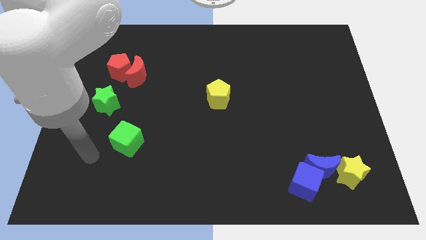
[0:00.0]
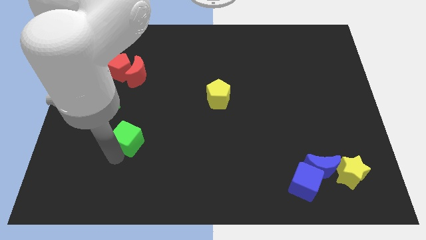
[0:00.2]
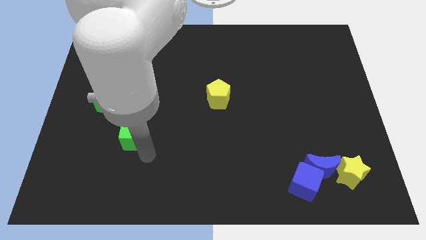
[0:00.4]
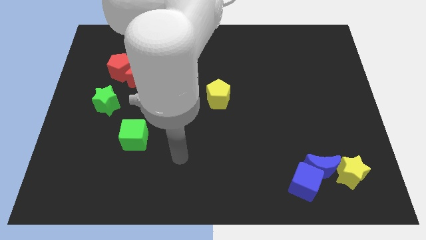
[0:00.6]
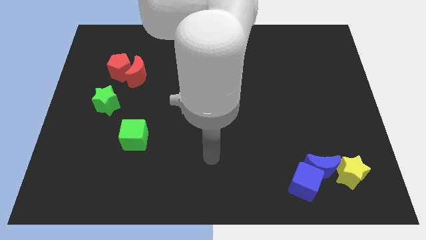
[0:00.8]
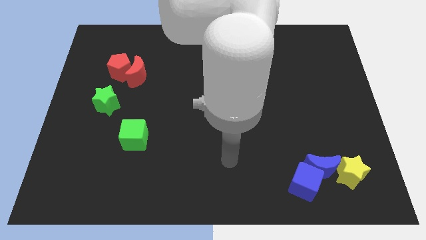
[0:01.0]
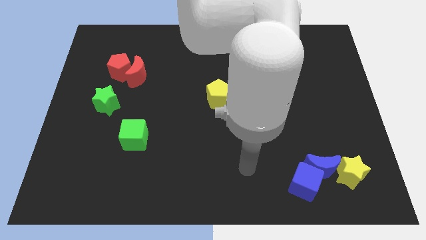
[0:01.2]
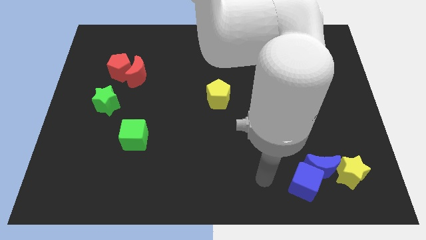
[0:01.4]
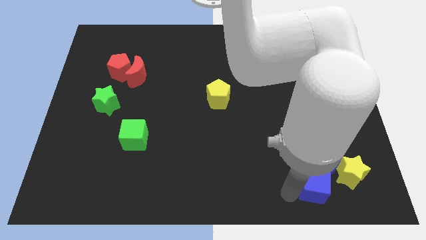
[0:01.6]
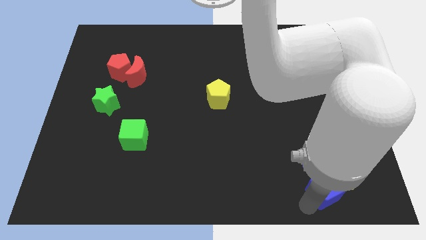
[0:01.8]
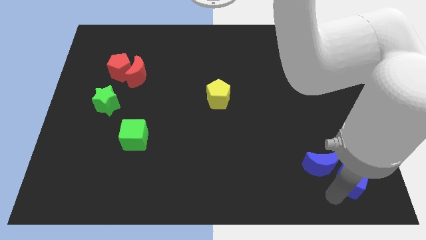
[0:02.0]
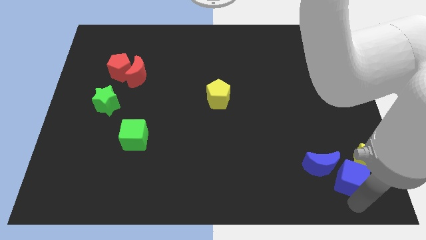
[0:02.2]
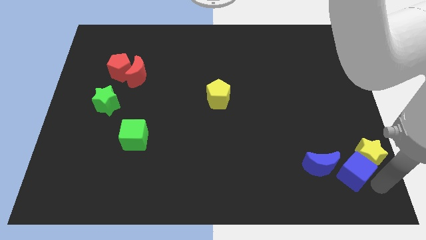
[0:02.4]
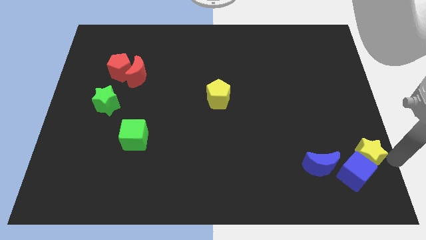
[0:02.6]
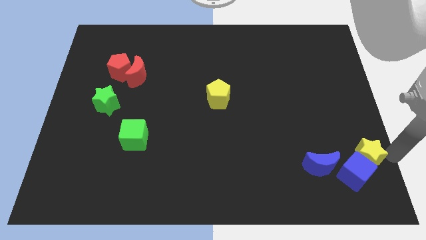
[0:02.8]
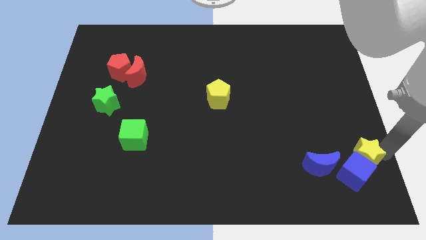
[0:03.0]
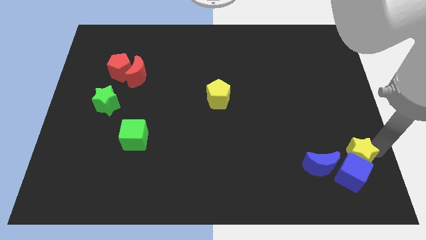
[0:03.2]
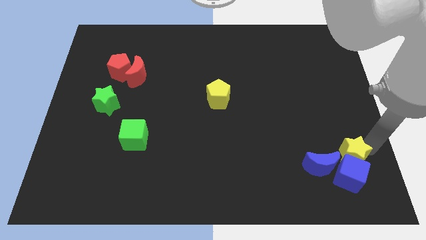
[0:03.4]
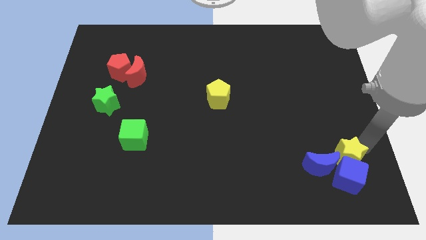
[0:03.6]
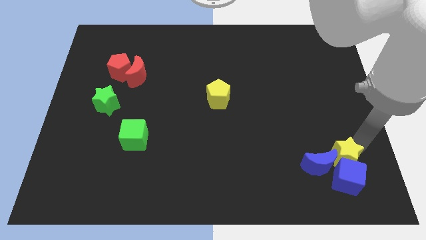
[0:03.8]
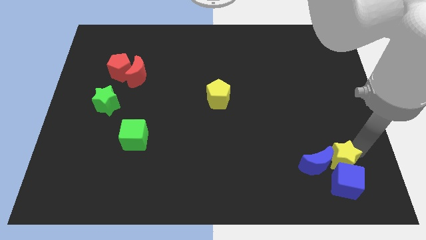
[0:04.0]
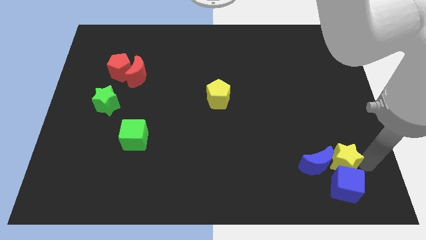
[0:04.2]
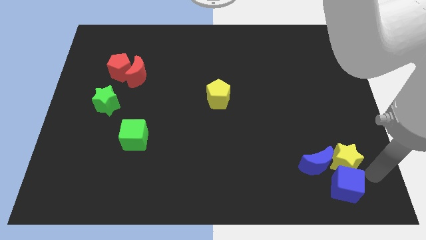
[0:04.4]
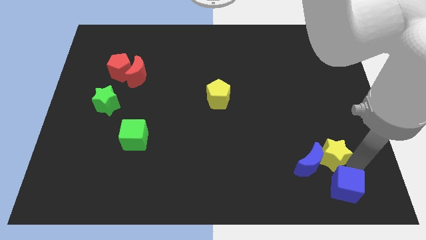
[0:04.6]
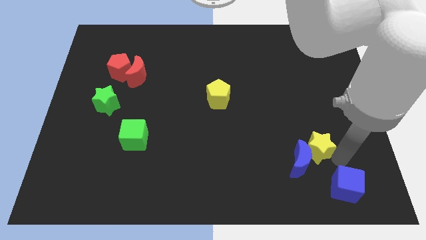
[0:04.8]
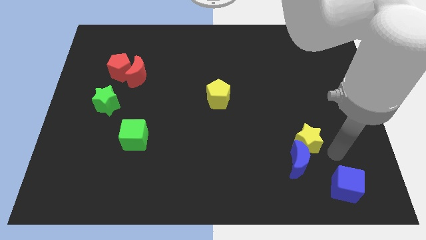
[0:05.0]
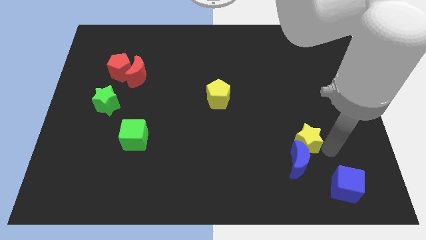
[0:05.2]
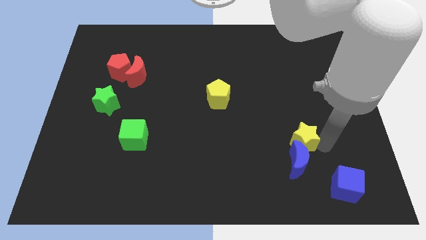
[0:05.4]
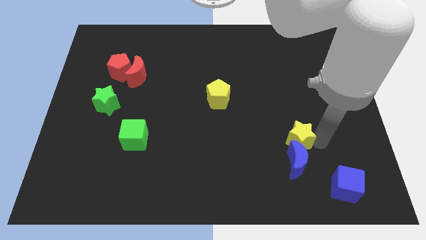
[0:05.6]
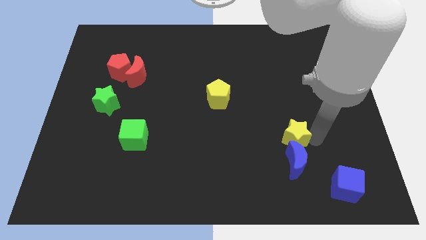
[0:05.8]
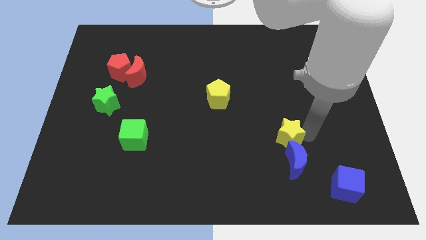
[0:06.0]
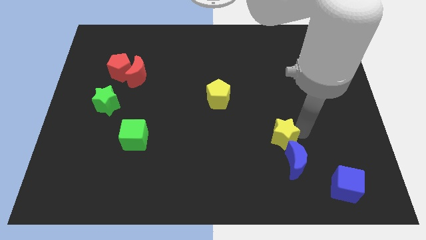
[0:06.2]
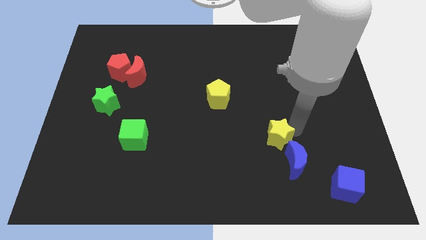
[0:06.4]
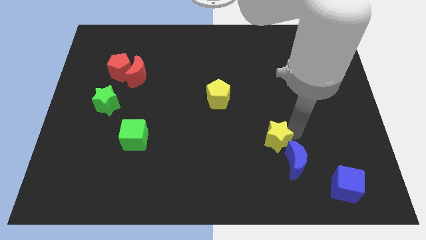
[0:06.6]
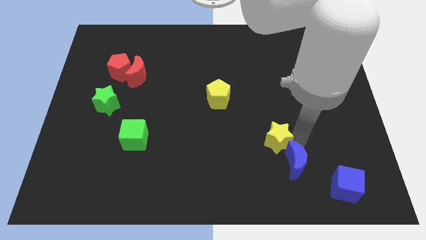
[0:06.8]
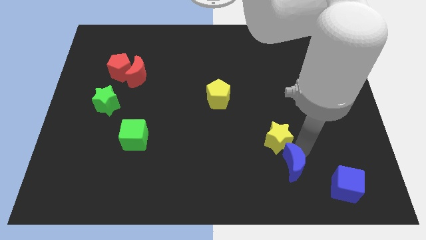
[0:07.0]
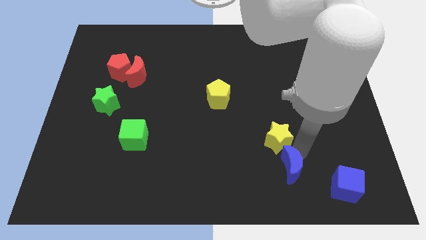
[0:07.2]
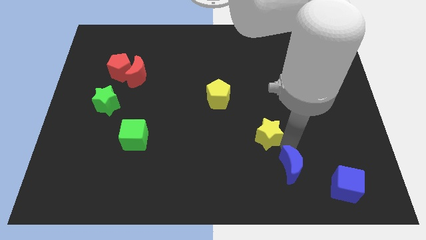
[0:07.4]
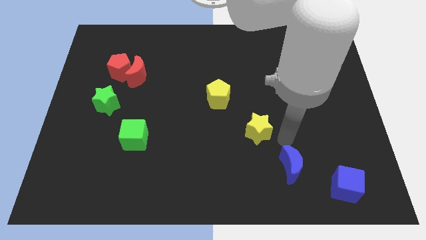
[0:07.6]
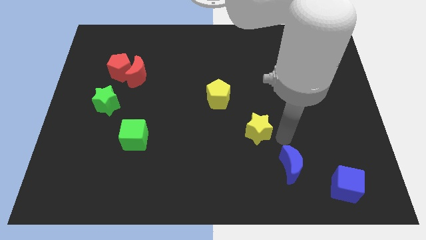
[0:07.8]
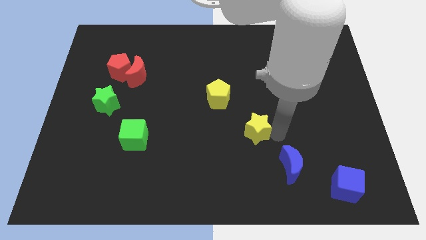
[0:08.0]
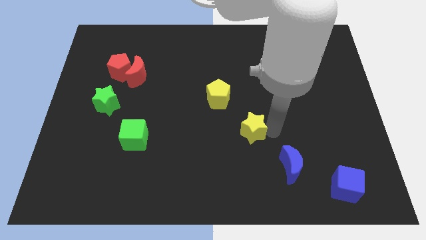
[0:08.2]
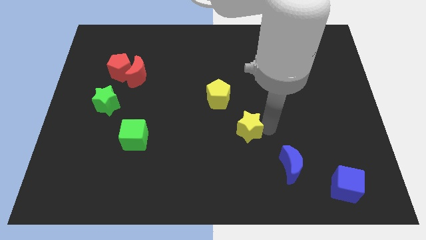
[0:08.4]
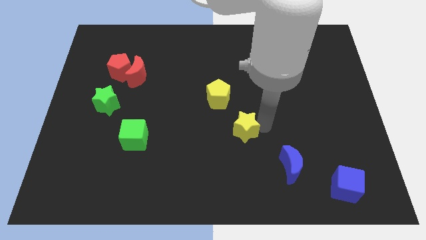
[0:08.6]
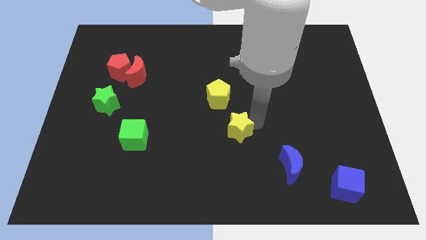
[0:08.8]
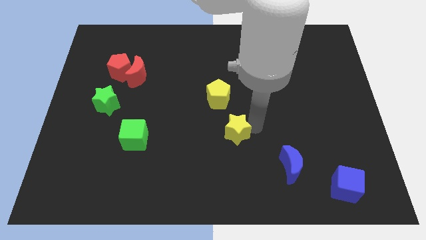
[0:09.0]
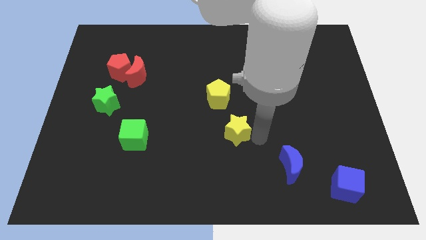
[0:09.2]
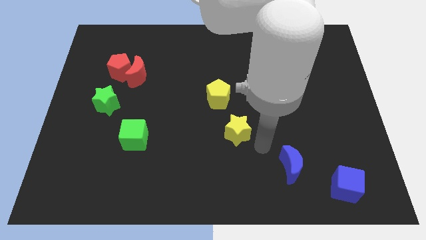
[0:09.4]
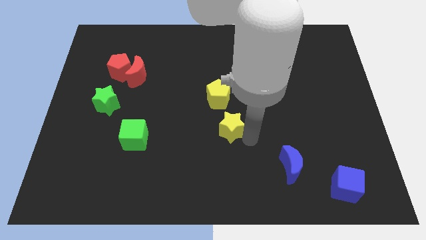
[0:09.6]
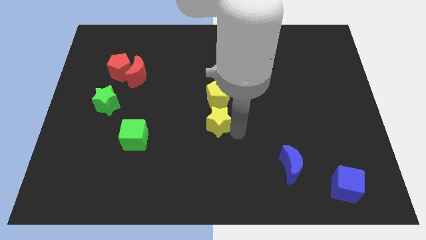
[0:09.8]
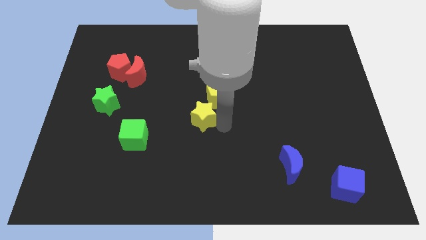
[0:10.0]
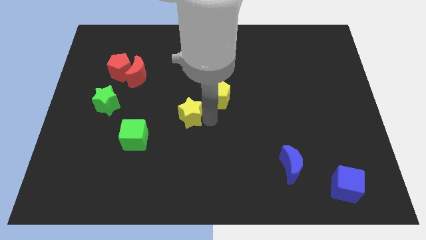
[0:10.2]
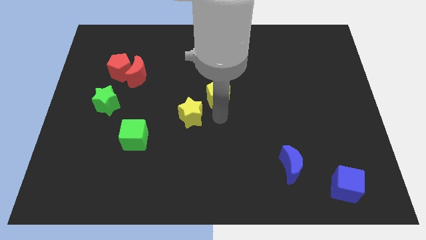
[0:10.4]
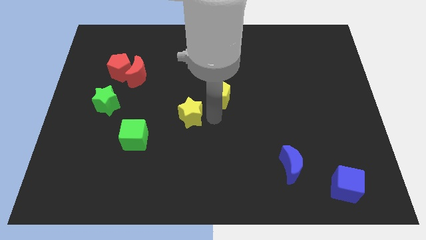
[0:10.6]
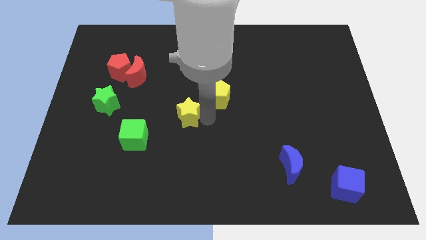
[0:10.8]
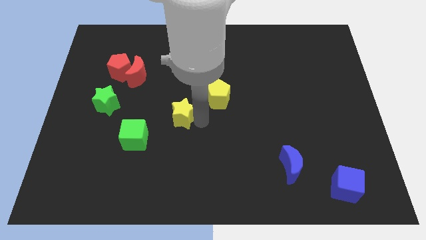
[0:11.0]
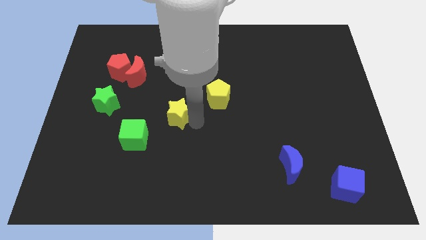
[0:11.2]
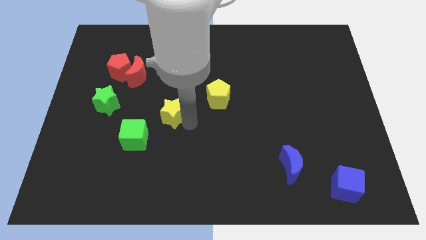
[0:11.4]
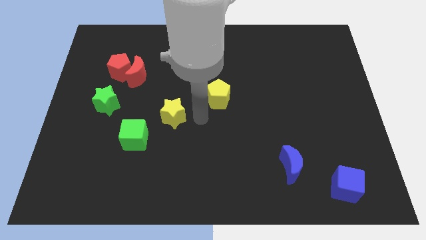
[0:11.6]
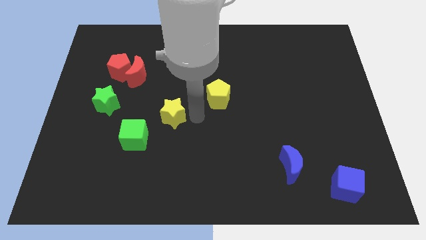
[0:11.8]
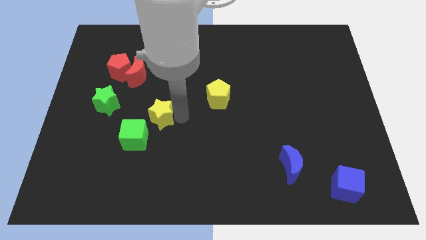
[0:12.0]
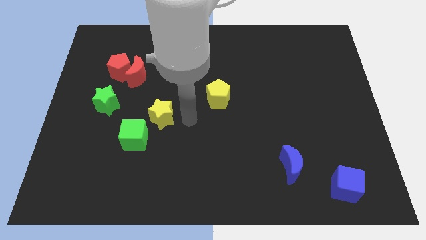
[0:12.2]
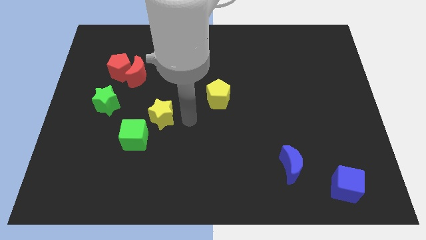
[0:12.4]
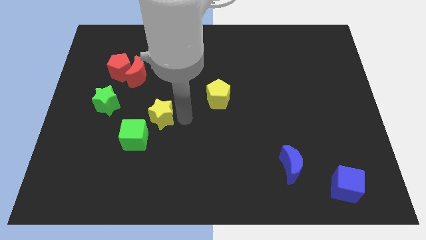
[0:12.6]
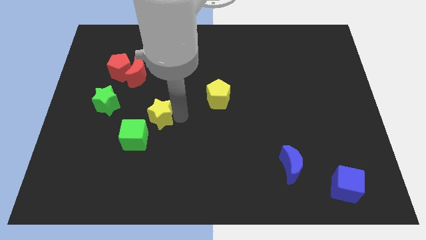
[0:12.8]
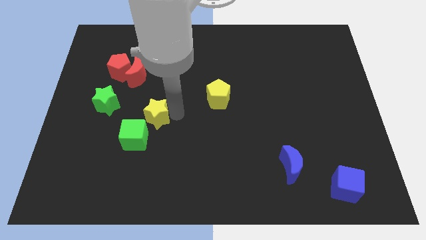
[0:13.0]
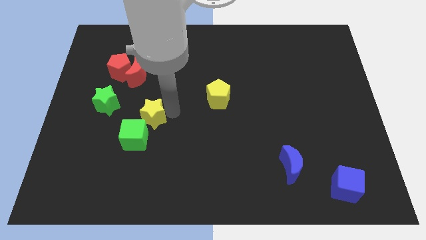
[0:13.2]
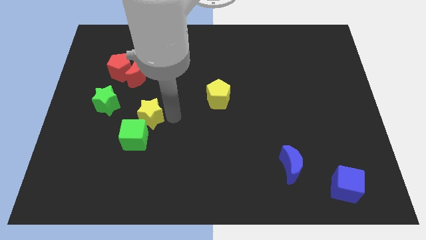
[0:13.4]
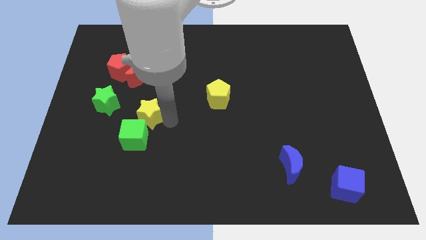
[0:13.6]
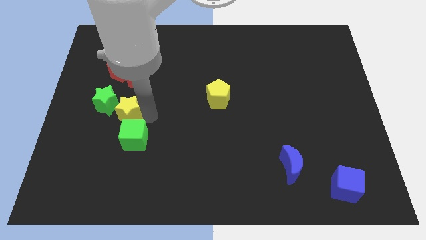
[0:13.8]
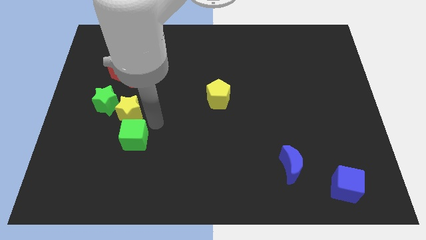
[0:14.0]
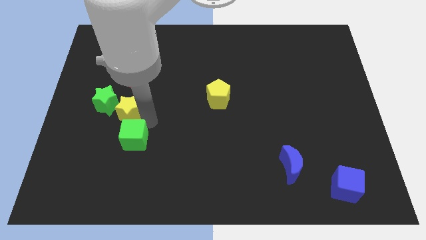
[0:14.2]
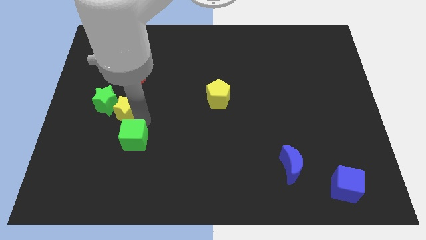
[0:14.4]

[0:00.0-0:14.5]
put the yellow star to the green star
